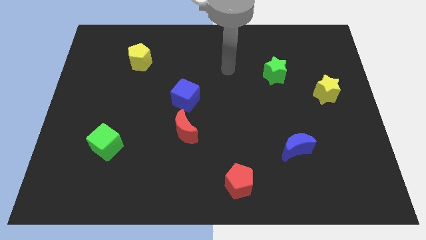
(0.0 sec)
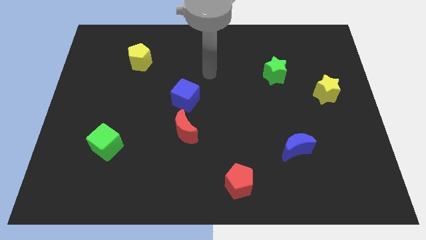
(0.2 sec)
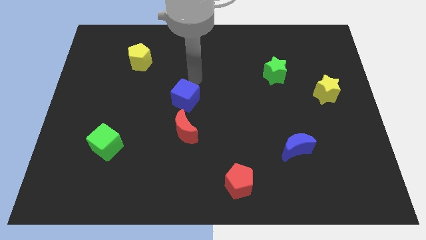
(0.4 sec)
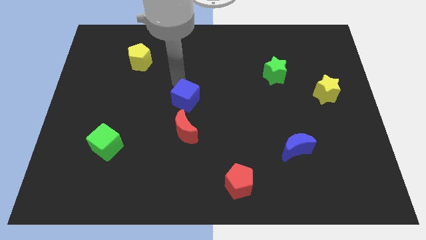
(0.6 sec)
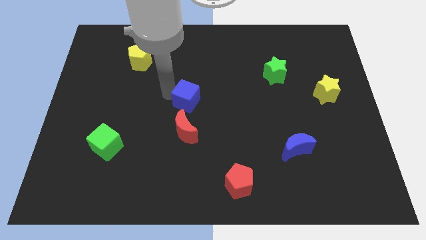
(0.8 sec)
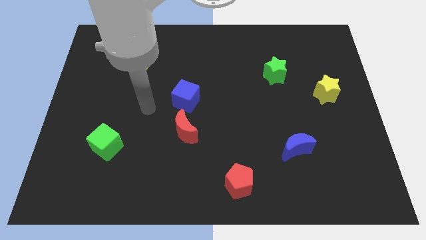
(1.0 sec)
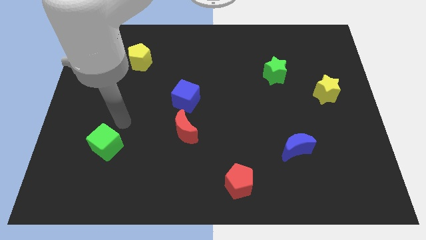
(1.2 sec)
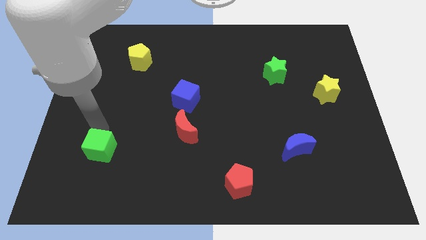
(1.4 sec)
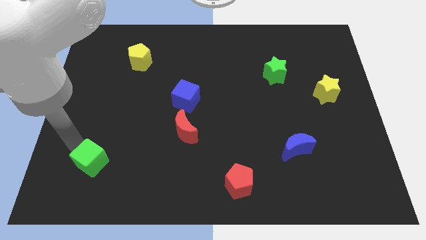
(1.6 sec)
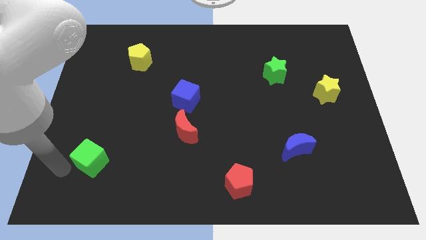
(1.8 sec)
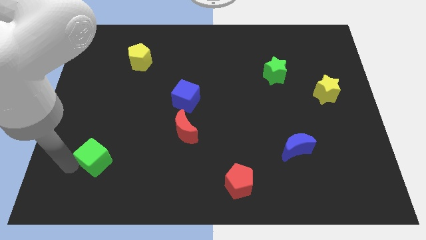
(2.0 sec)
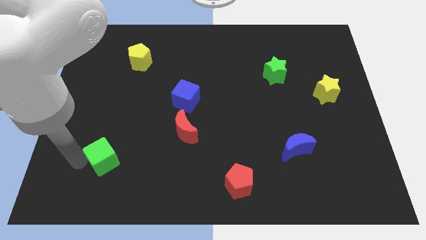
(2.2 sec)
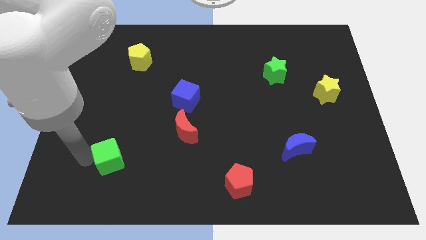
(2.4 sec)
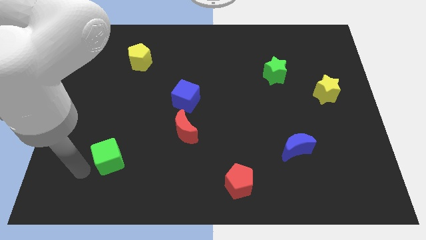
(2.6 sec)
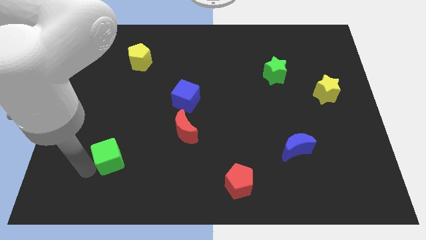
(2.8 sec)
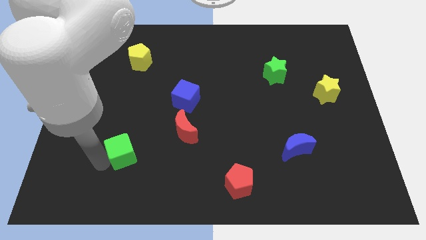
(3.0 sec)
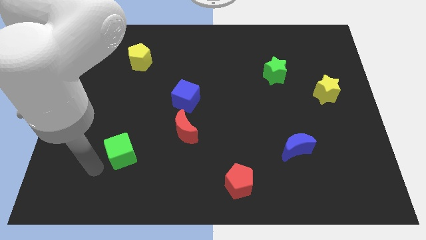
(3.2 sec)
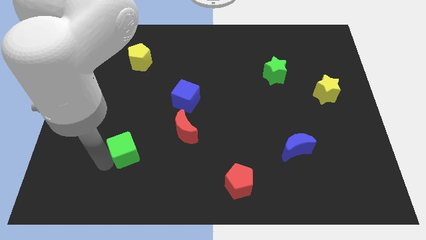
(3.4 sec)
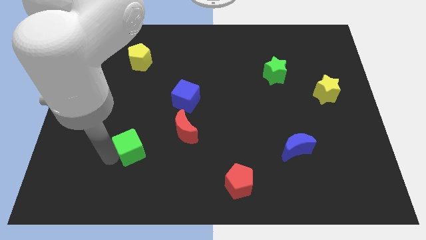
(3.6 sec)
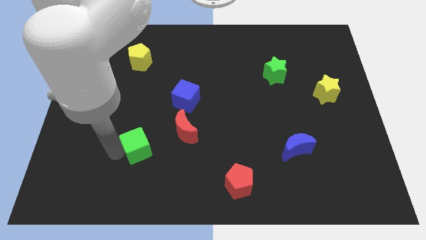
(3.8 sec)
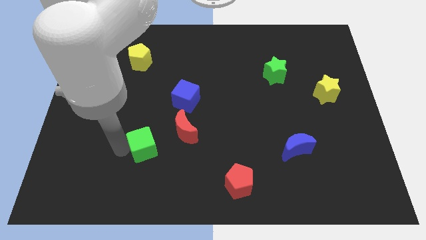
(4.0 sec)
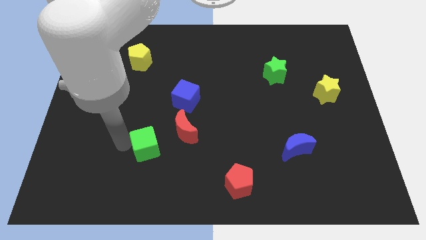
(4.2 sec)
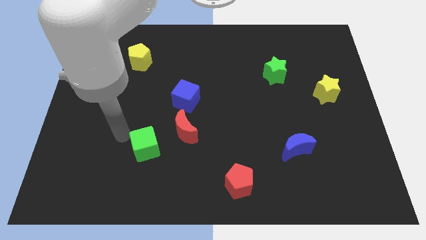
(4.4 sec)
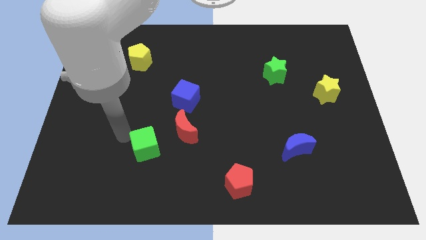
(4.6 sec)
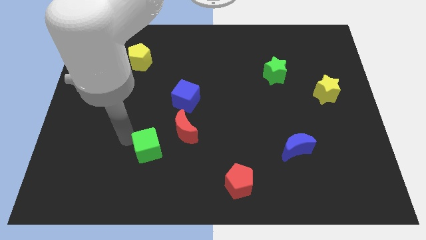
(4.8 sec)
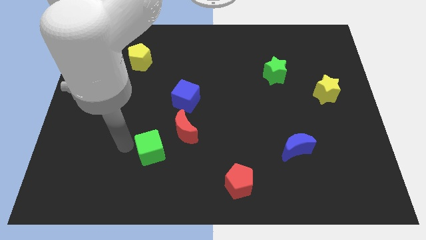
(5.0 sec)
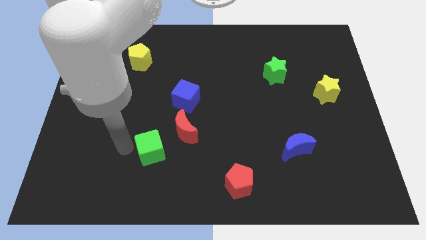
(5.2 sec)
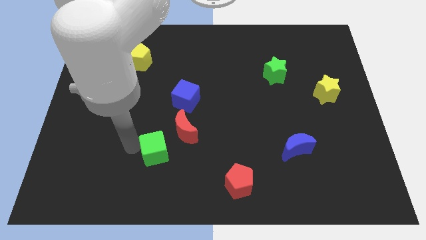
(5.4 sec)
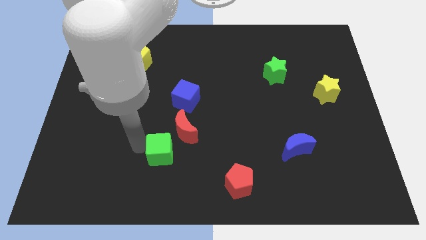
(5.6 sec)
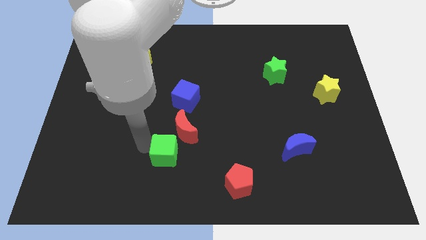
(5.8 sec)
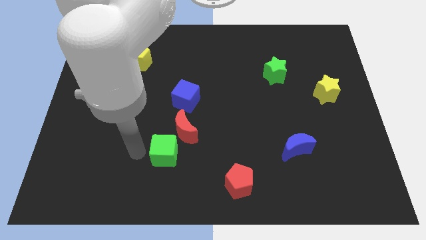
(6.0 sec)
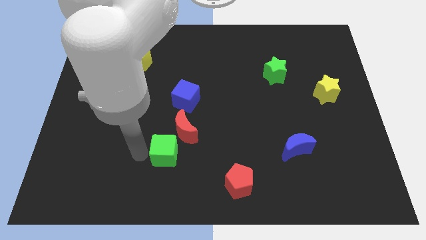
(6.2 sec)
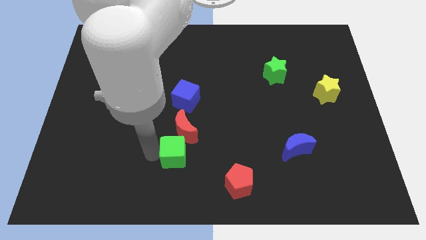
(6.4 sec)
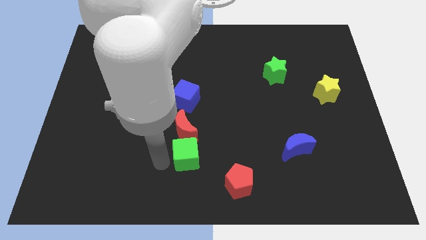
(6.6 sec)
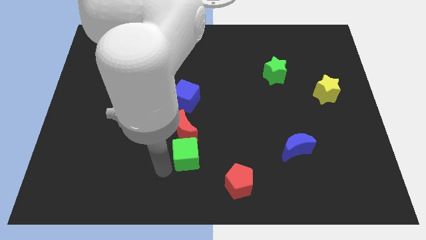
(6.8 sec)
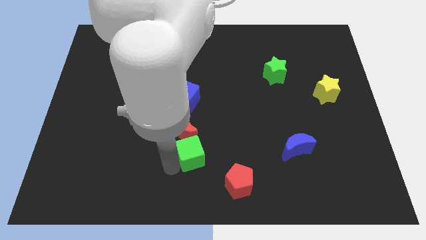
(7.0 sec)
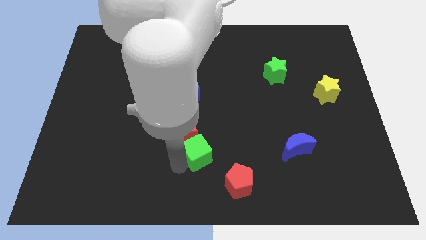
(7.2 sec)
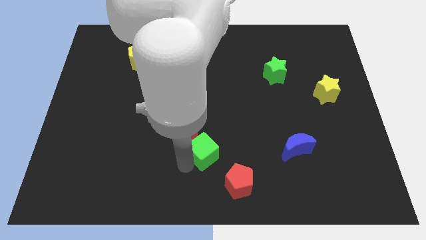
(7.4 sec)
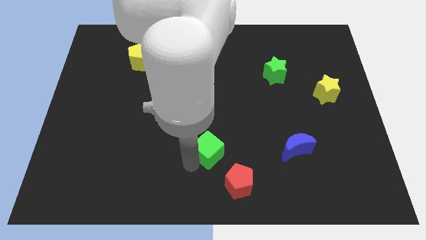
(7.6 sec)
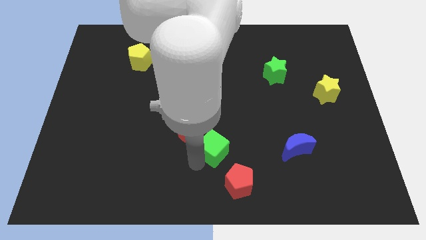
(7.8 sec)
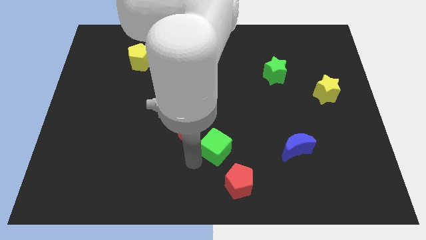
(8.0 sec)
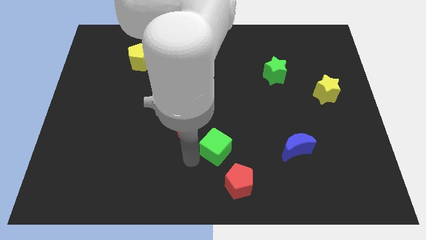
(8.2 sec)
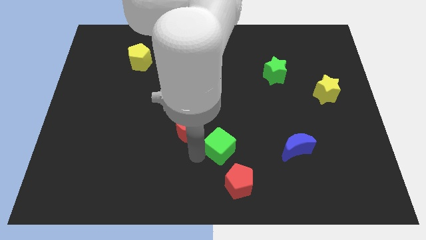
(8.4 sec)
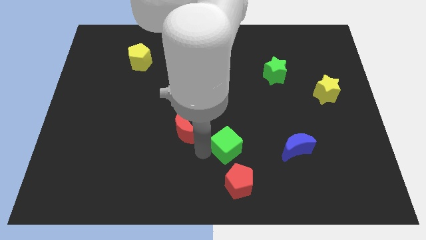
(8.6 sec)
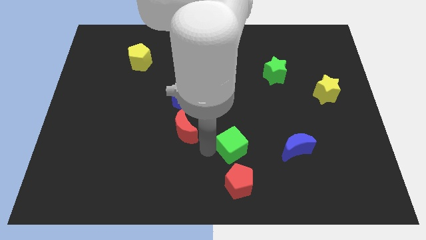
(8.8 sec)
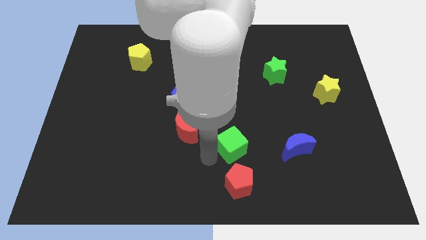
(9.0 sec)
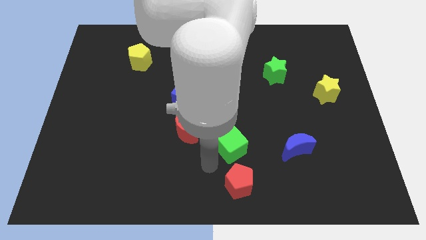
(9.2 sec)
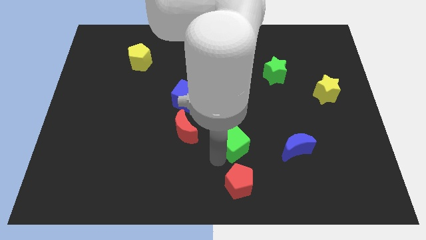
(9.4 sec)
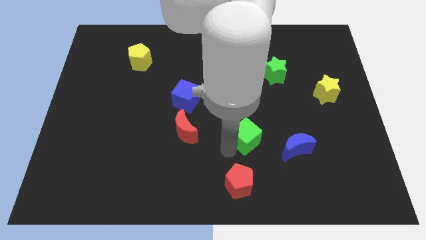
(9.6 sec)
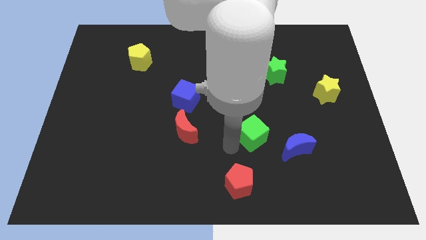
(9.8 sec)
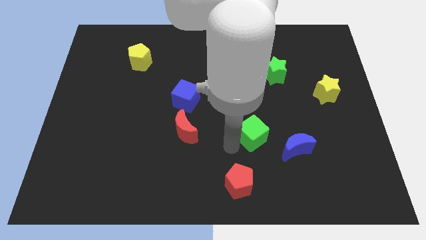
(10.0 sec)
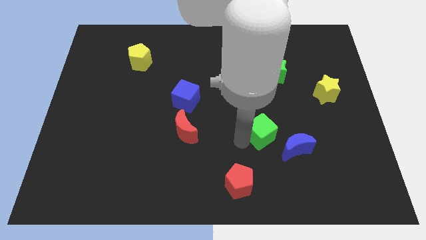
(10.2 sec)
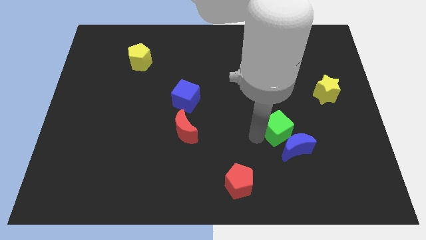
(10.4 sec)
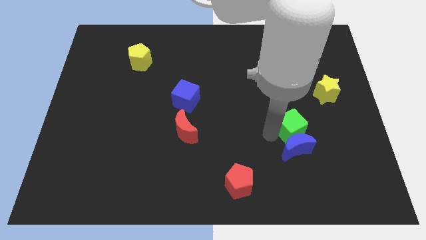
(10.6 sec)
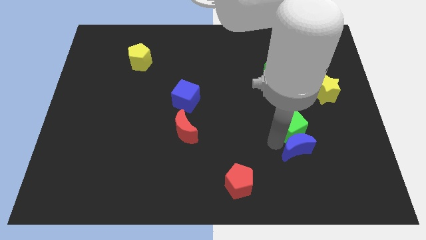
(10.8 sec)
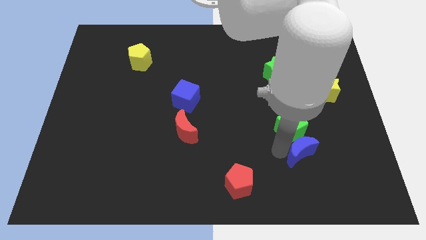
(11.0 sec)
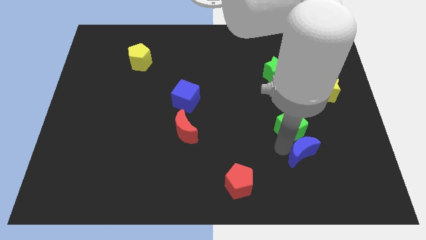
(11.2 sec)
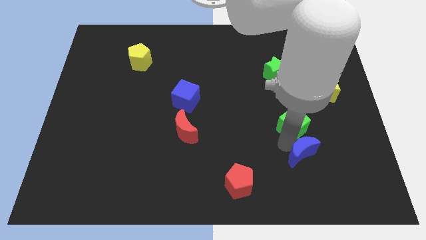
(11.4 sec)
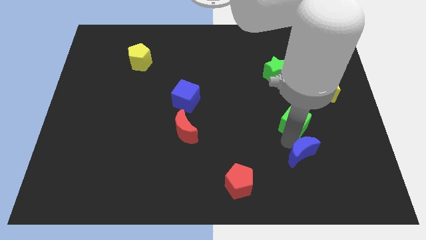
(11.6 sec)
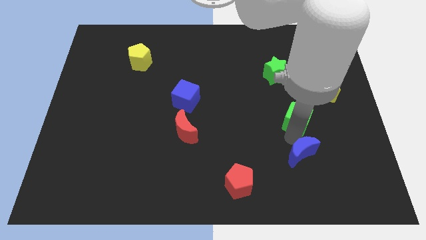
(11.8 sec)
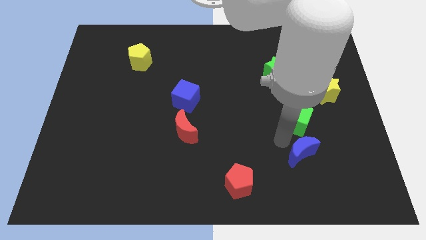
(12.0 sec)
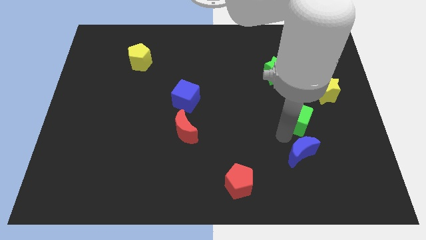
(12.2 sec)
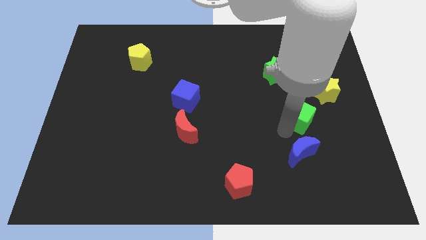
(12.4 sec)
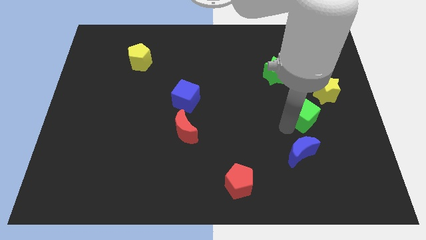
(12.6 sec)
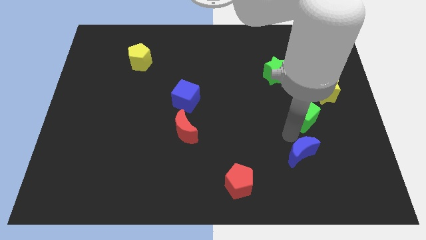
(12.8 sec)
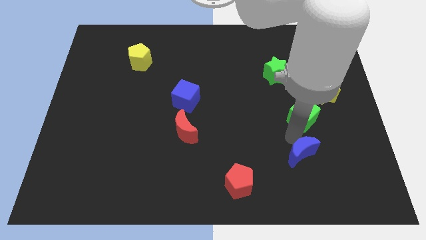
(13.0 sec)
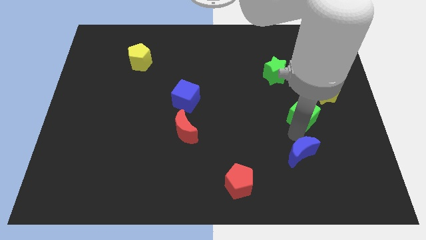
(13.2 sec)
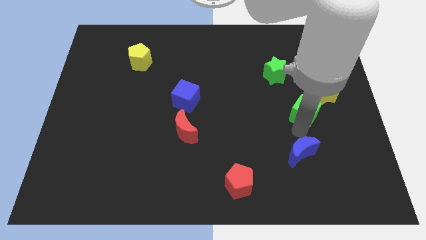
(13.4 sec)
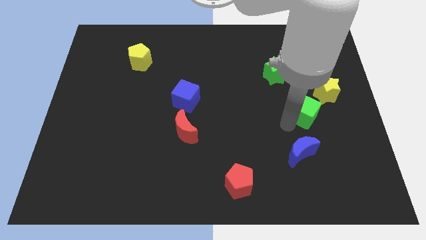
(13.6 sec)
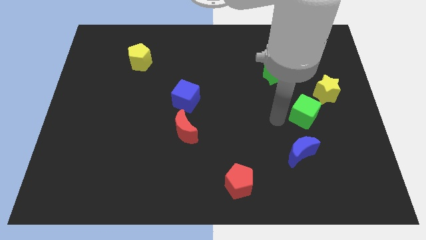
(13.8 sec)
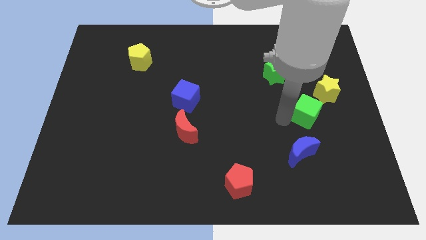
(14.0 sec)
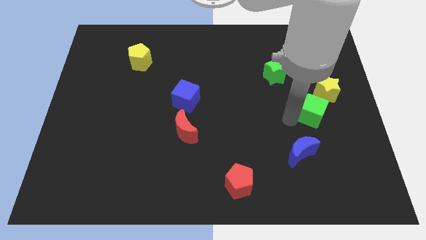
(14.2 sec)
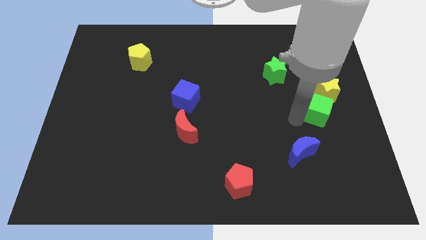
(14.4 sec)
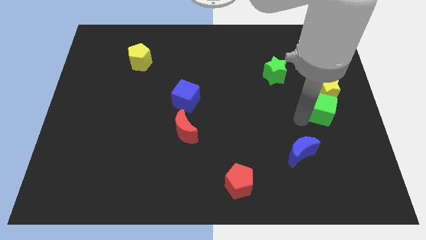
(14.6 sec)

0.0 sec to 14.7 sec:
move the green cube to the right side of the board
